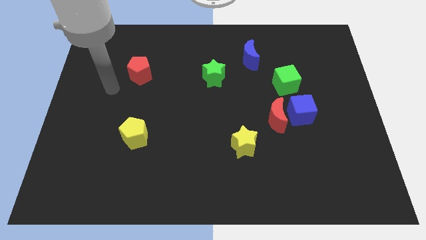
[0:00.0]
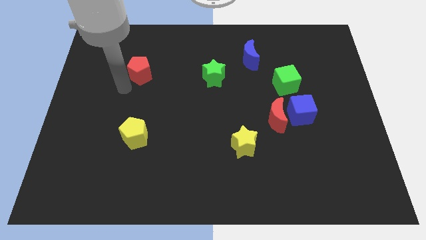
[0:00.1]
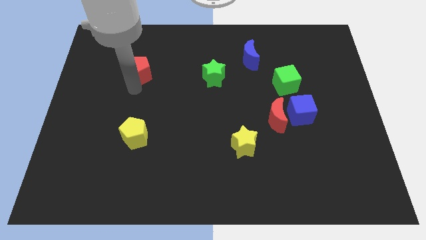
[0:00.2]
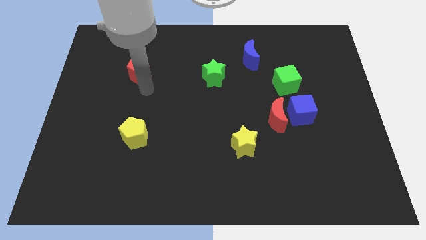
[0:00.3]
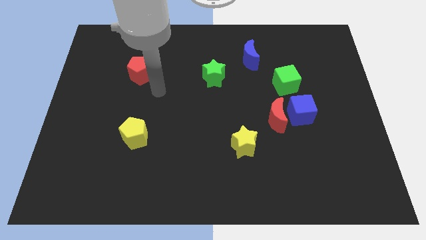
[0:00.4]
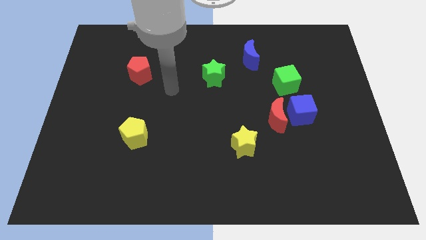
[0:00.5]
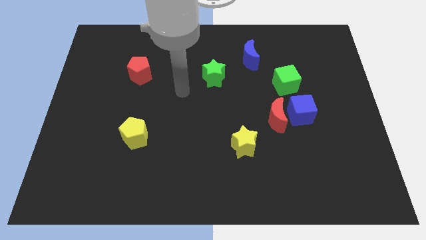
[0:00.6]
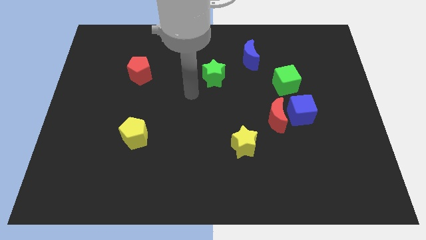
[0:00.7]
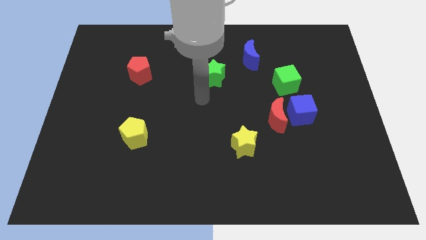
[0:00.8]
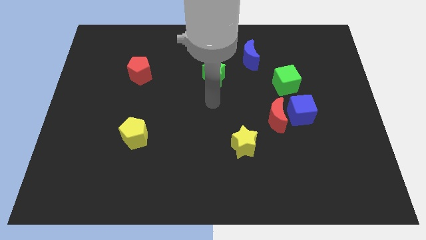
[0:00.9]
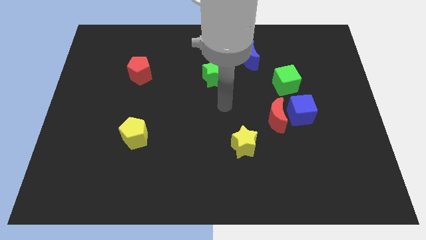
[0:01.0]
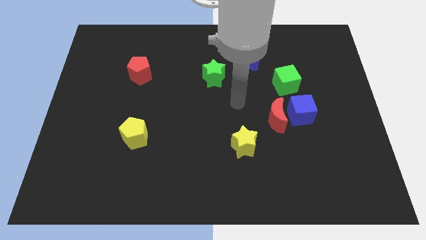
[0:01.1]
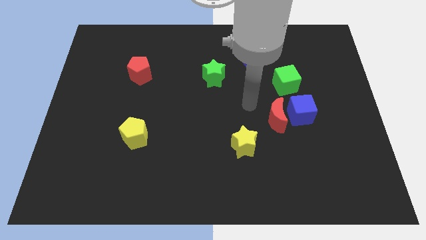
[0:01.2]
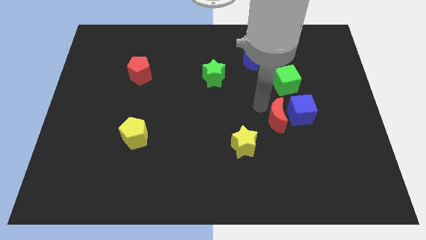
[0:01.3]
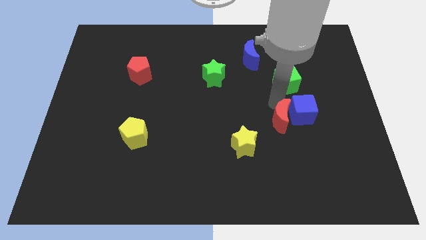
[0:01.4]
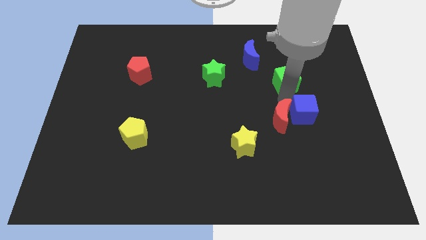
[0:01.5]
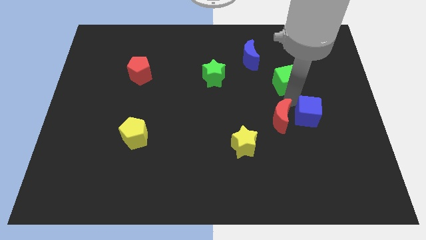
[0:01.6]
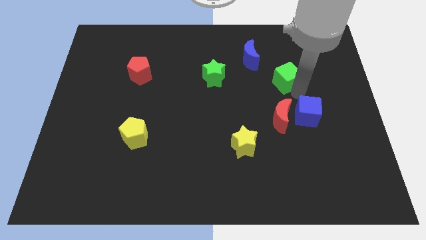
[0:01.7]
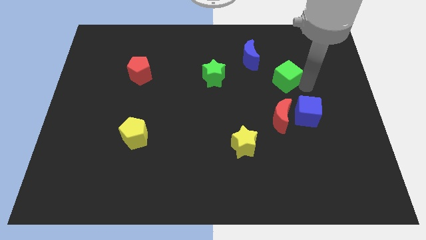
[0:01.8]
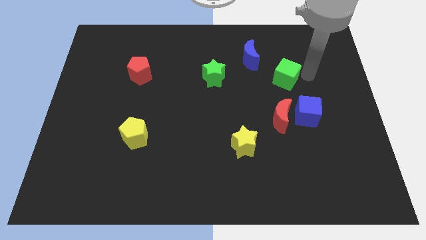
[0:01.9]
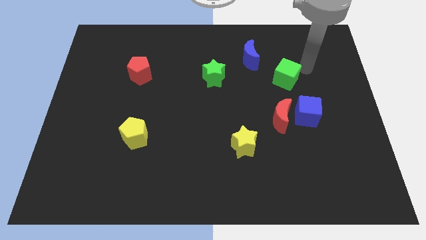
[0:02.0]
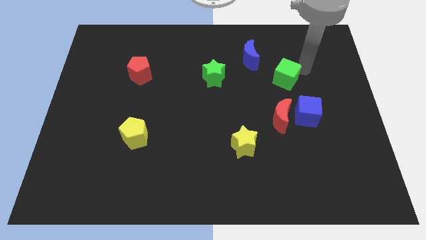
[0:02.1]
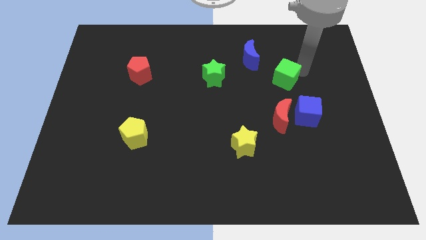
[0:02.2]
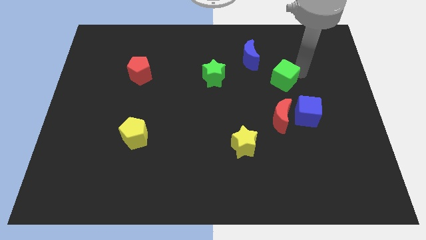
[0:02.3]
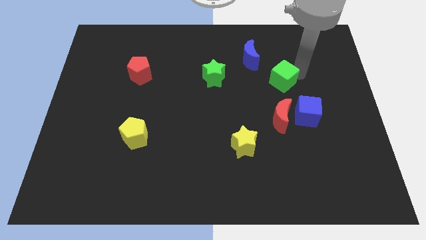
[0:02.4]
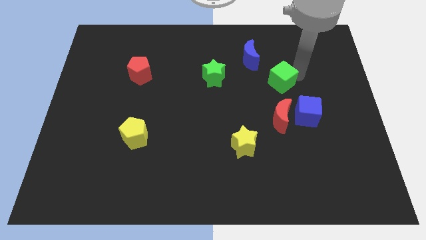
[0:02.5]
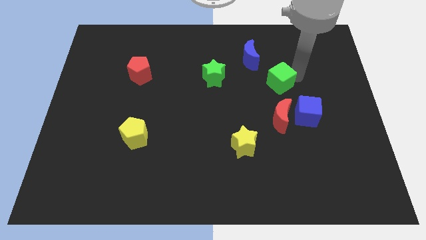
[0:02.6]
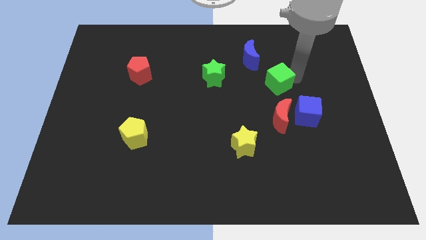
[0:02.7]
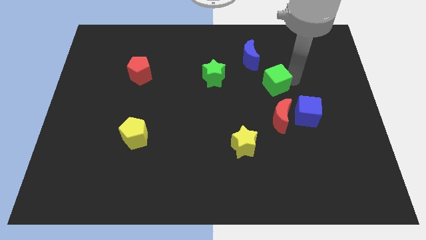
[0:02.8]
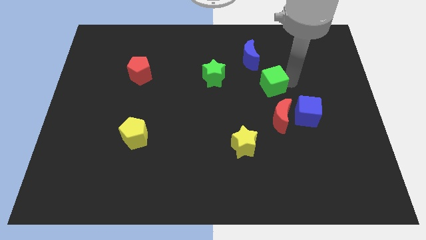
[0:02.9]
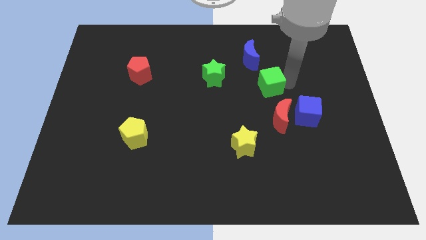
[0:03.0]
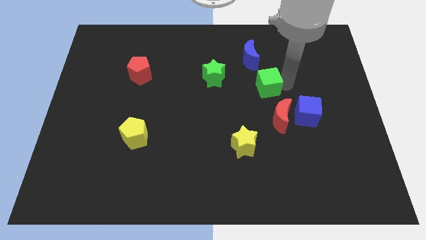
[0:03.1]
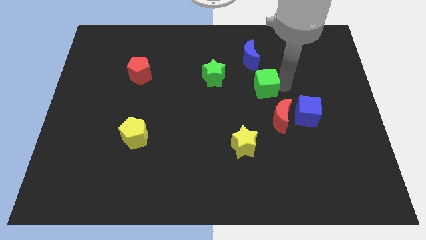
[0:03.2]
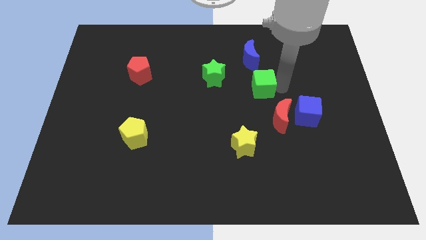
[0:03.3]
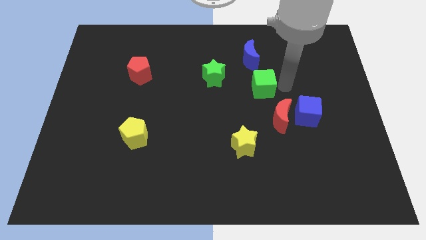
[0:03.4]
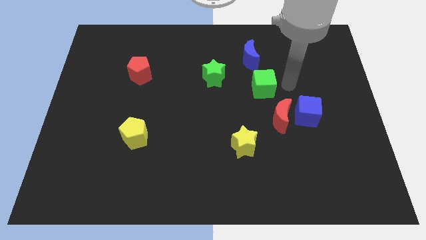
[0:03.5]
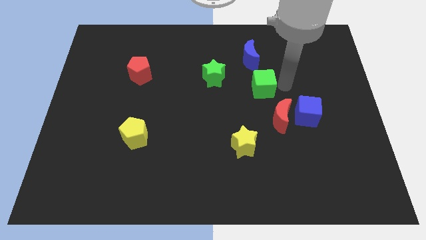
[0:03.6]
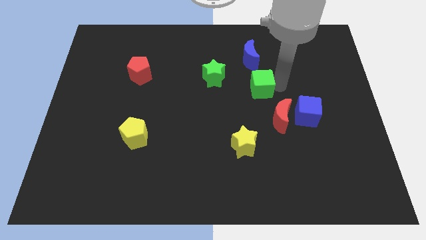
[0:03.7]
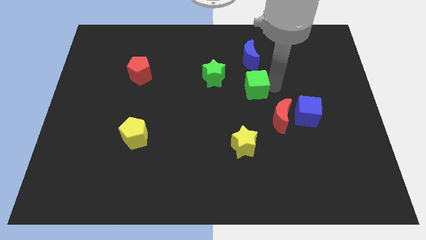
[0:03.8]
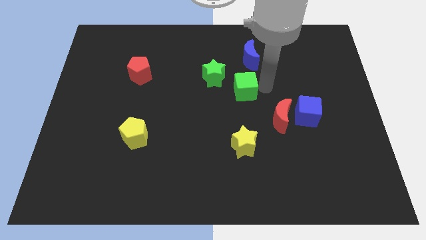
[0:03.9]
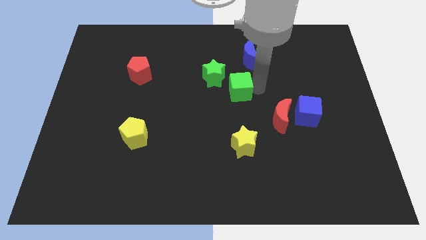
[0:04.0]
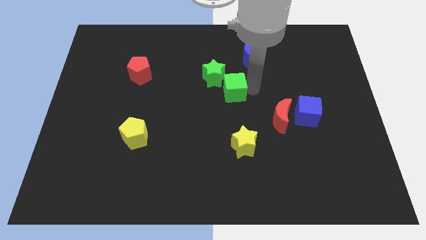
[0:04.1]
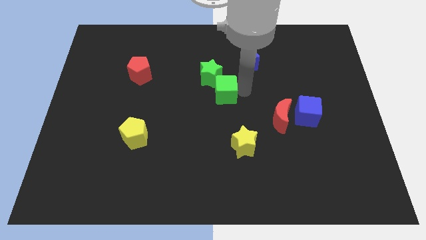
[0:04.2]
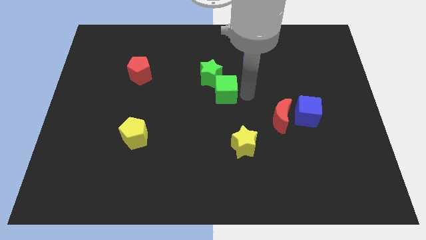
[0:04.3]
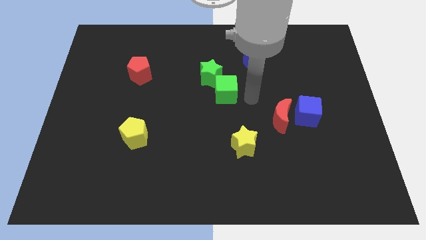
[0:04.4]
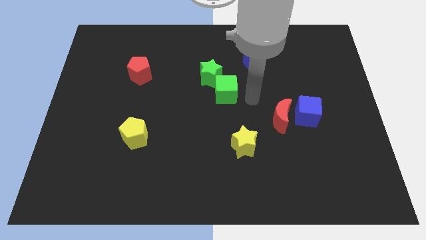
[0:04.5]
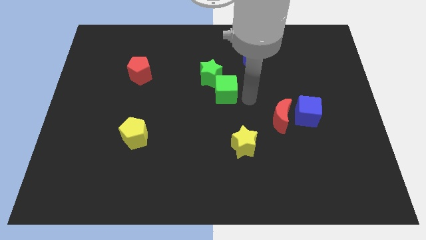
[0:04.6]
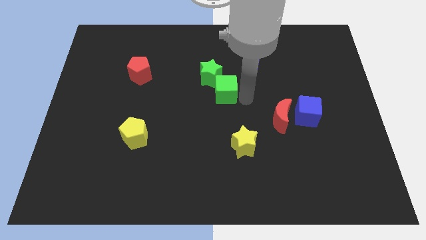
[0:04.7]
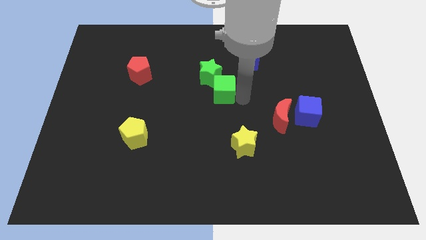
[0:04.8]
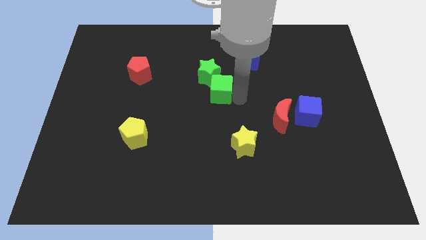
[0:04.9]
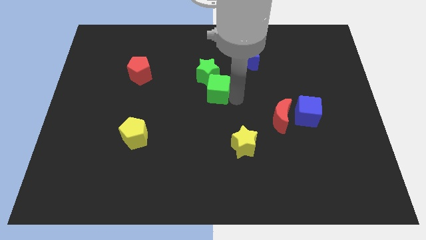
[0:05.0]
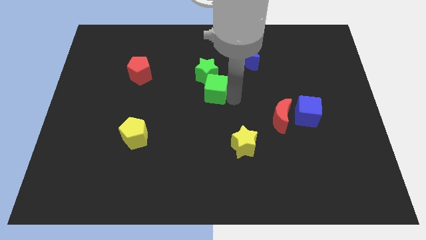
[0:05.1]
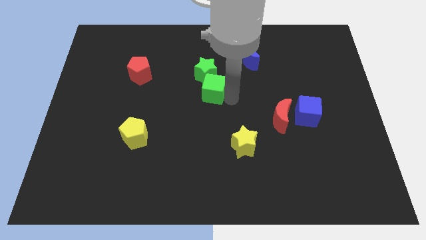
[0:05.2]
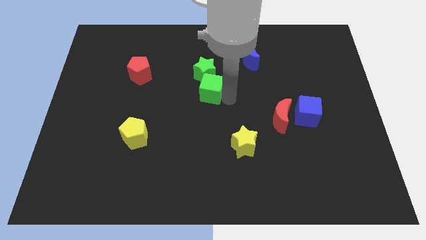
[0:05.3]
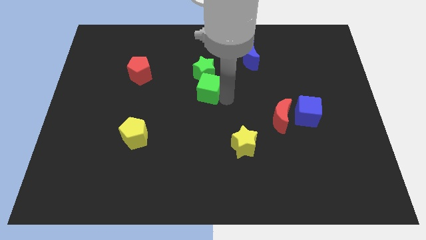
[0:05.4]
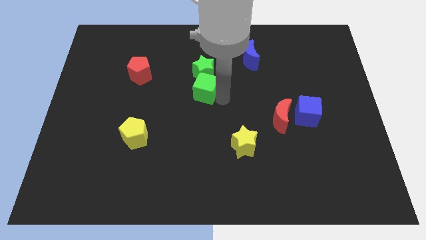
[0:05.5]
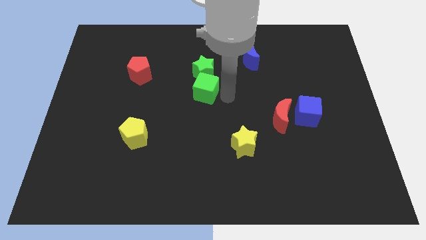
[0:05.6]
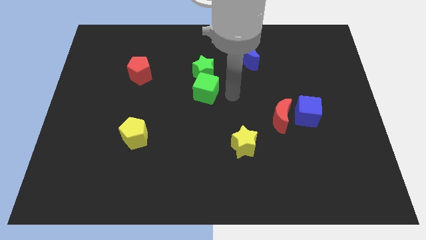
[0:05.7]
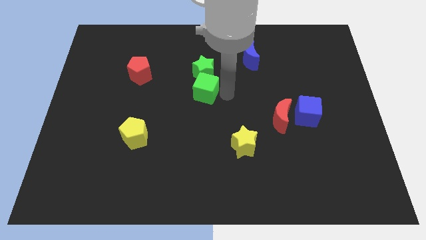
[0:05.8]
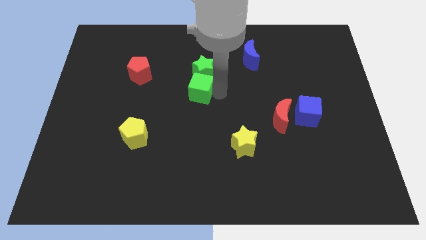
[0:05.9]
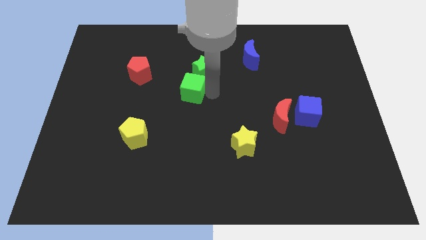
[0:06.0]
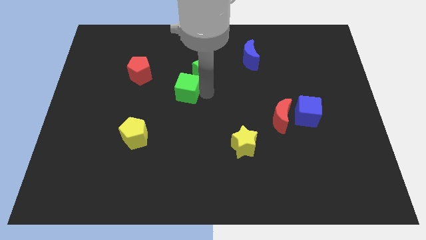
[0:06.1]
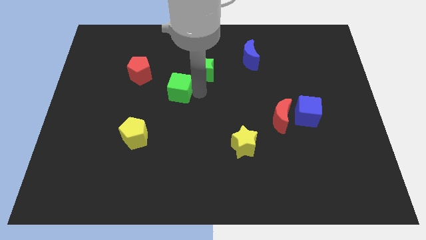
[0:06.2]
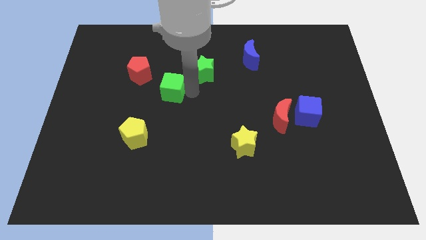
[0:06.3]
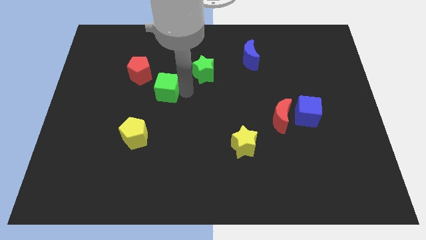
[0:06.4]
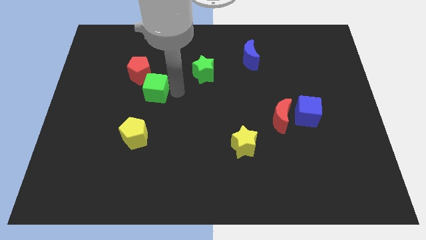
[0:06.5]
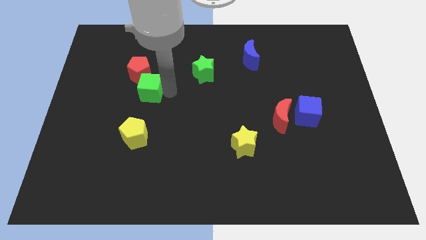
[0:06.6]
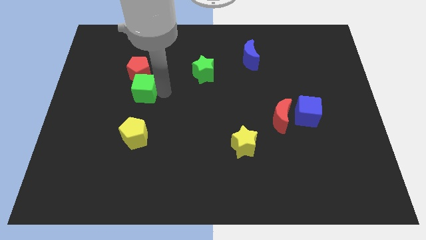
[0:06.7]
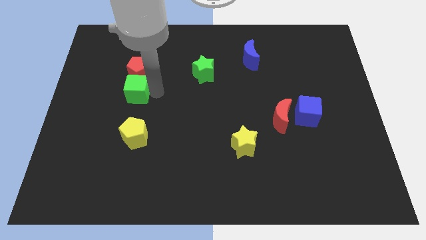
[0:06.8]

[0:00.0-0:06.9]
put the green cube to the bottom left of the red pentagon

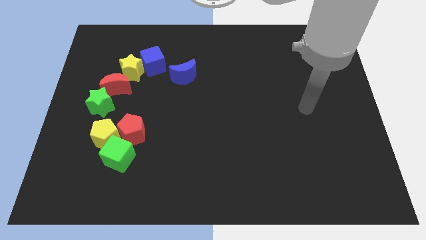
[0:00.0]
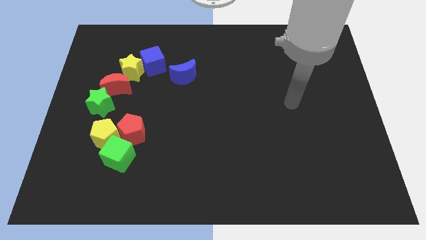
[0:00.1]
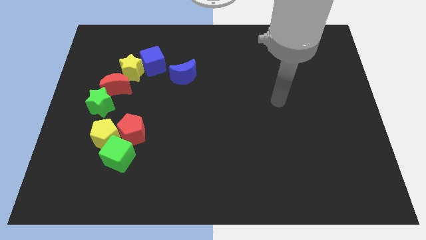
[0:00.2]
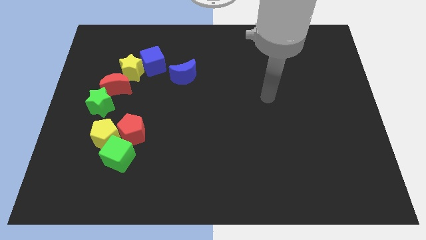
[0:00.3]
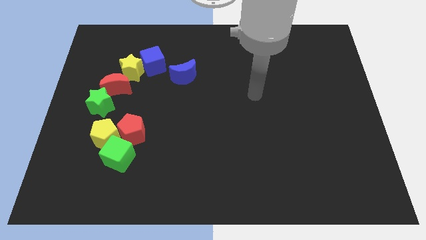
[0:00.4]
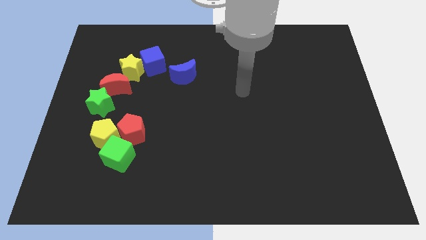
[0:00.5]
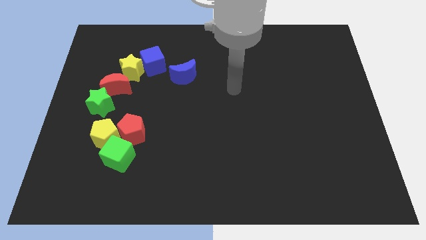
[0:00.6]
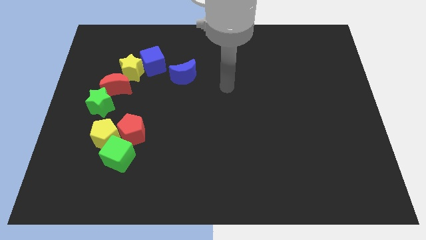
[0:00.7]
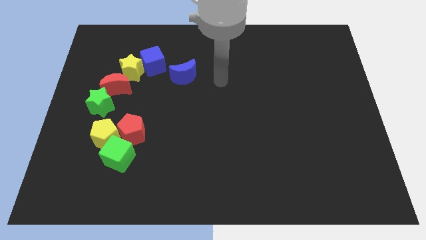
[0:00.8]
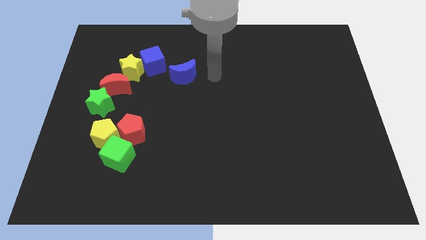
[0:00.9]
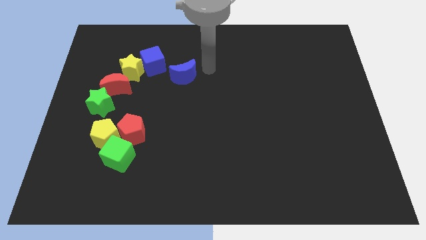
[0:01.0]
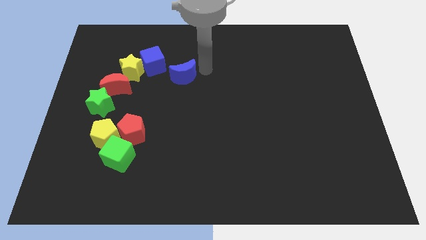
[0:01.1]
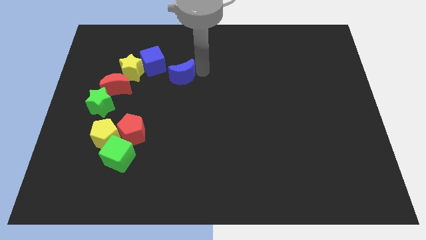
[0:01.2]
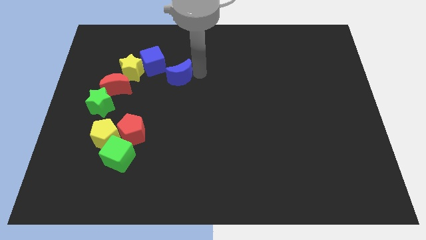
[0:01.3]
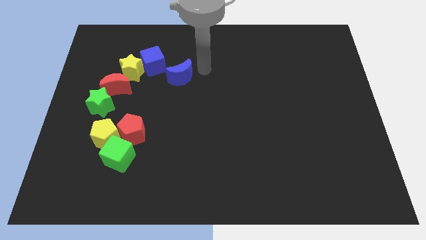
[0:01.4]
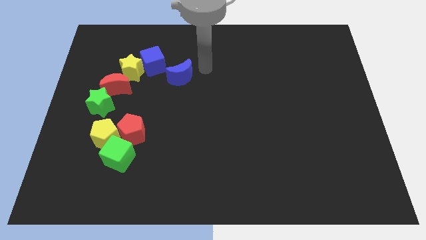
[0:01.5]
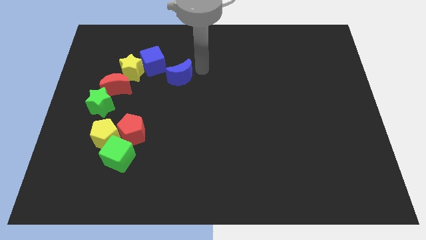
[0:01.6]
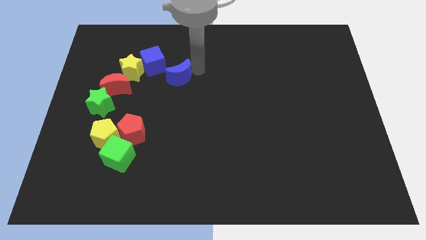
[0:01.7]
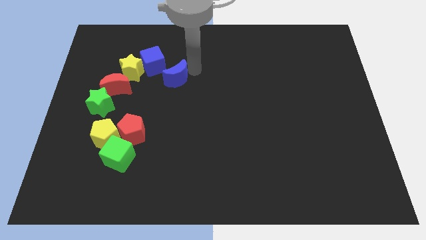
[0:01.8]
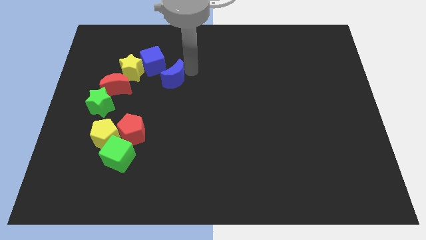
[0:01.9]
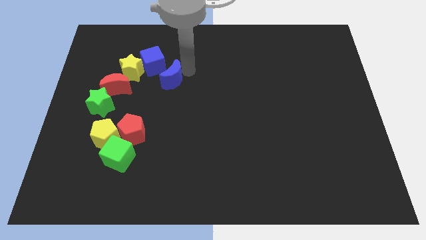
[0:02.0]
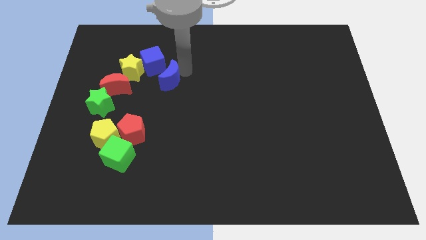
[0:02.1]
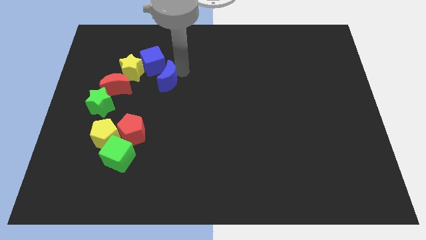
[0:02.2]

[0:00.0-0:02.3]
move the blue moon to the bottom right side of the yellow star
